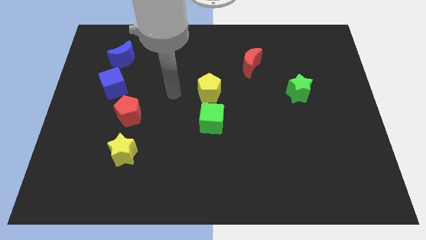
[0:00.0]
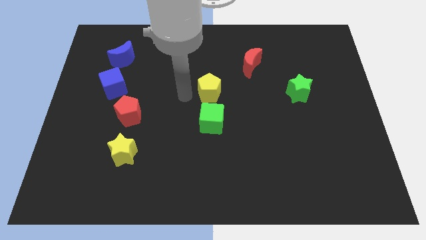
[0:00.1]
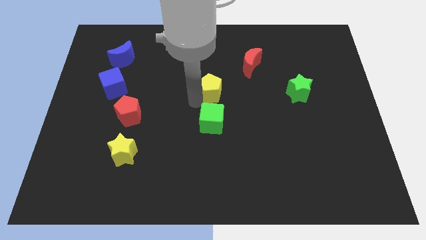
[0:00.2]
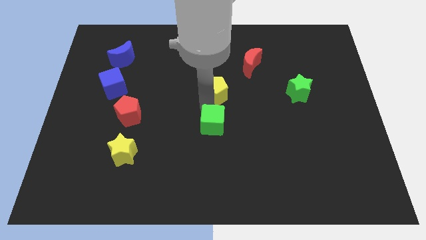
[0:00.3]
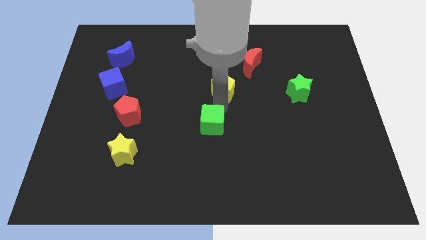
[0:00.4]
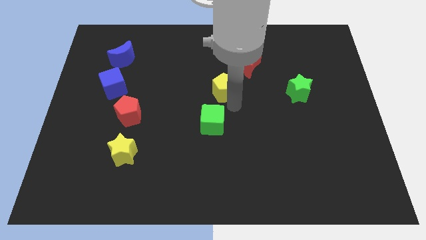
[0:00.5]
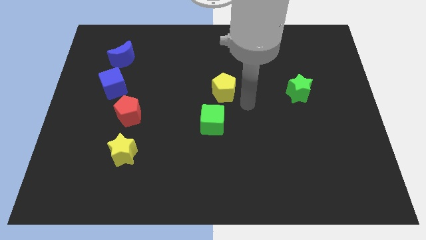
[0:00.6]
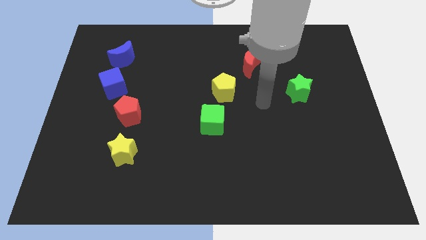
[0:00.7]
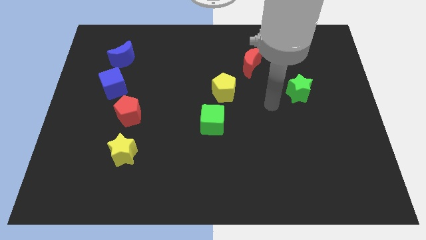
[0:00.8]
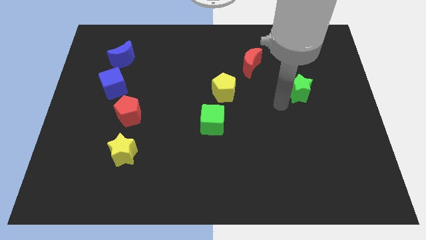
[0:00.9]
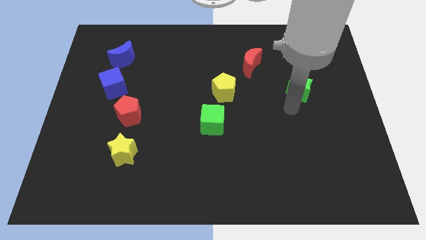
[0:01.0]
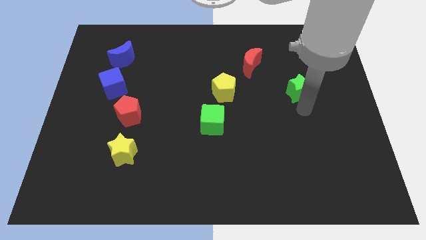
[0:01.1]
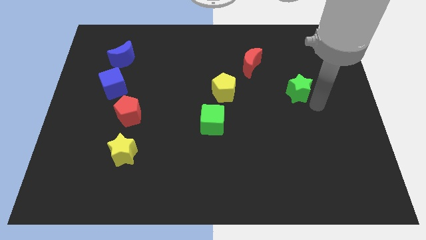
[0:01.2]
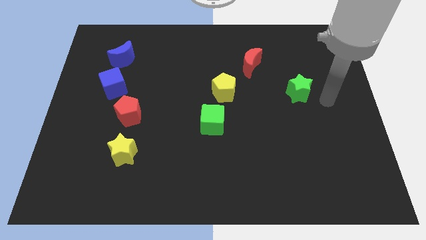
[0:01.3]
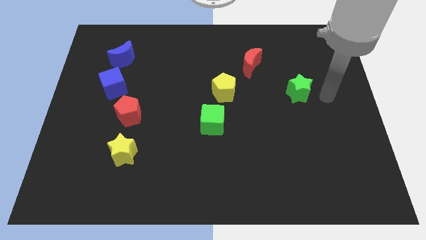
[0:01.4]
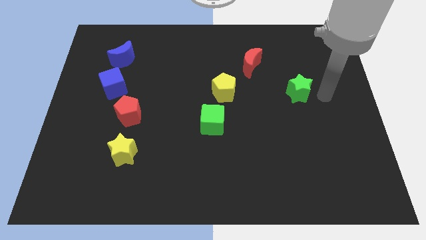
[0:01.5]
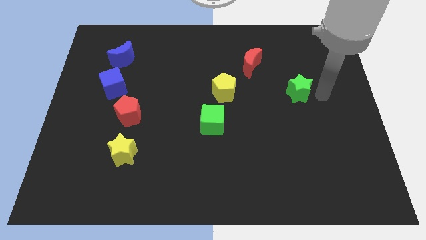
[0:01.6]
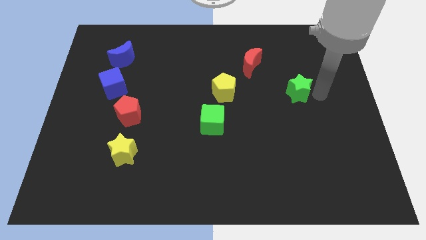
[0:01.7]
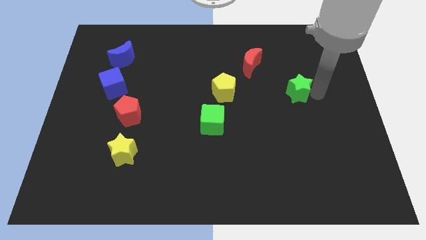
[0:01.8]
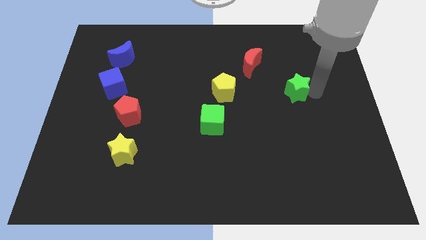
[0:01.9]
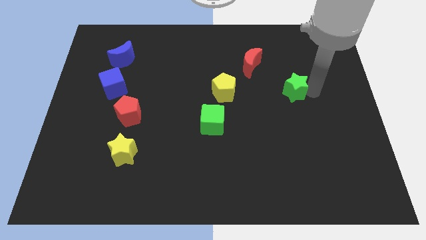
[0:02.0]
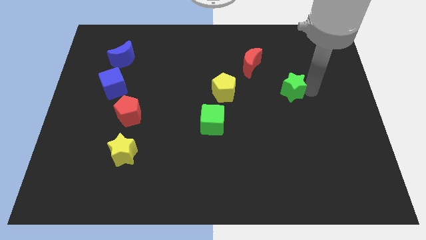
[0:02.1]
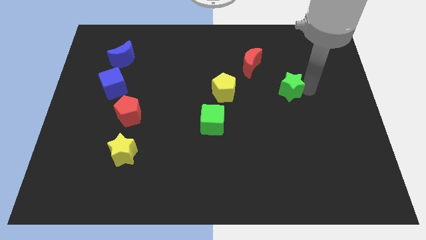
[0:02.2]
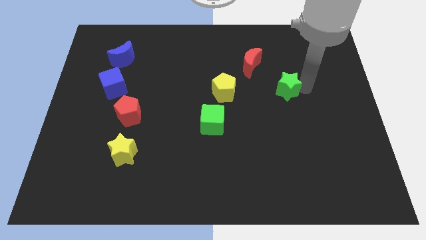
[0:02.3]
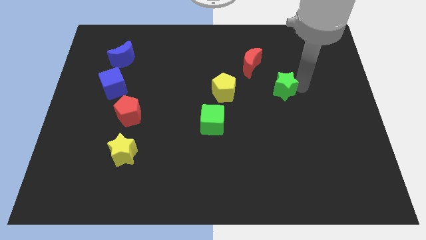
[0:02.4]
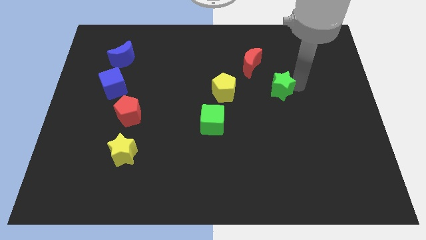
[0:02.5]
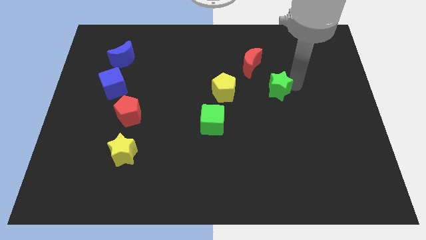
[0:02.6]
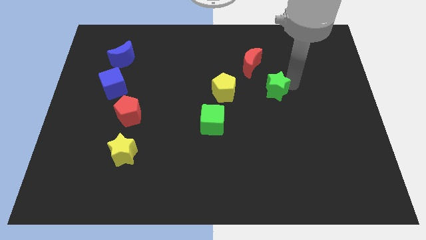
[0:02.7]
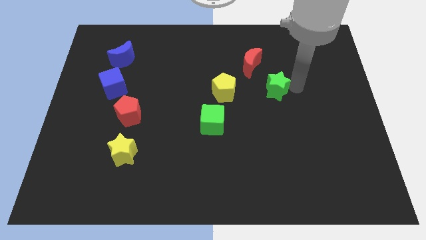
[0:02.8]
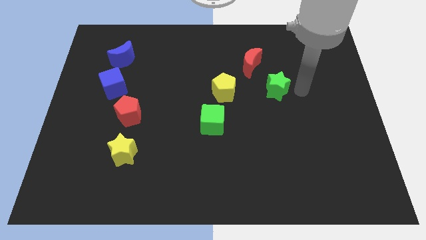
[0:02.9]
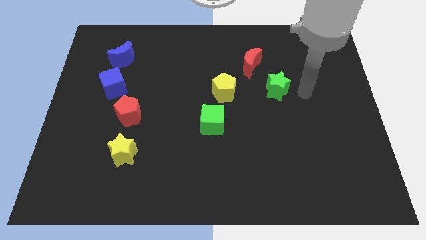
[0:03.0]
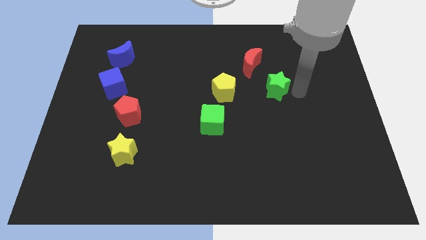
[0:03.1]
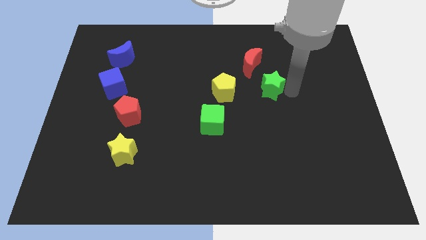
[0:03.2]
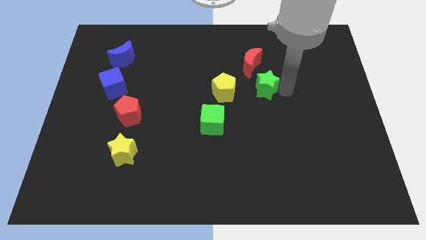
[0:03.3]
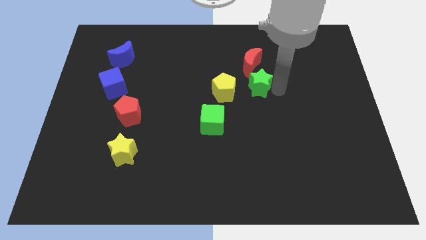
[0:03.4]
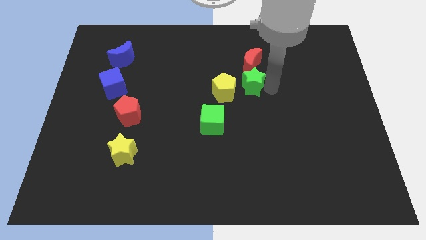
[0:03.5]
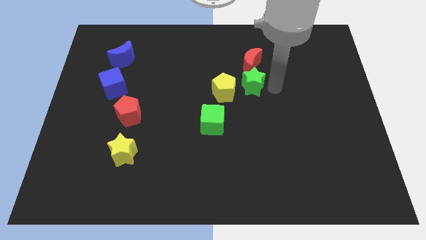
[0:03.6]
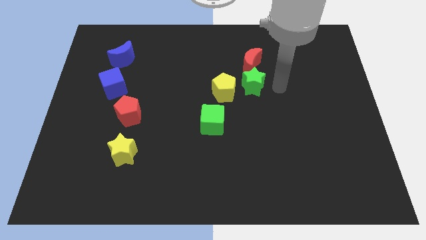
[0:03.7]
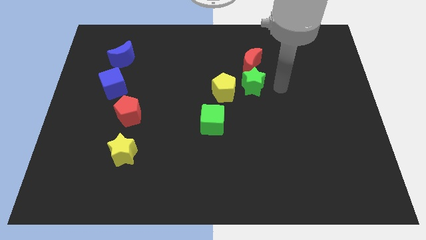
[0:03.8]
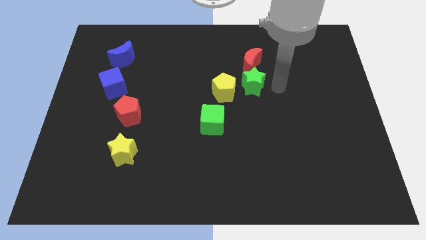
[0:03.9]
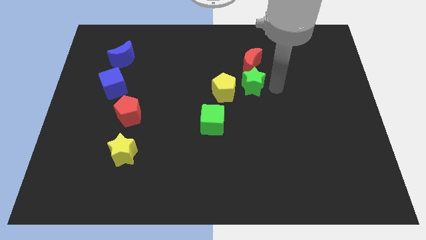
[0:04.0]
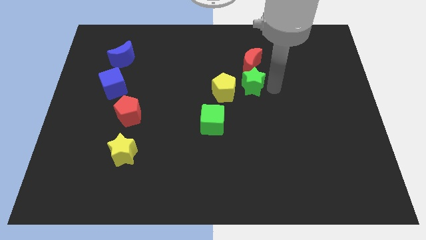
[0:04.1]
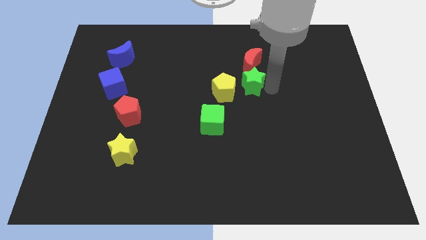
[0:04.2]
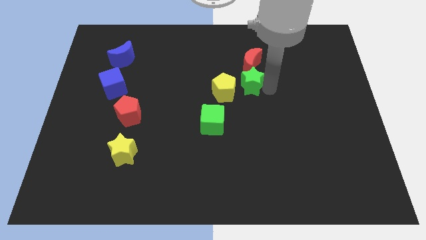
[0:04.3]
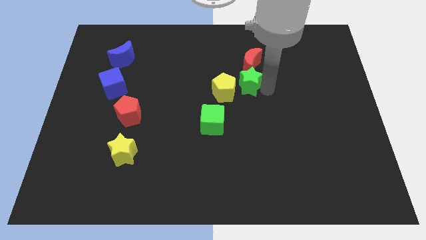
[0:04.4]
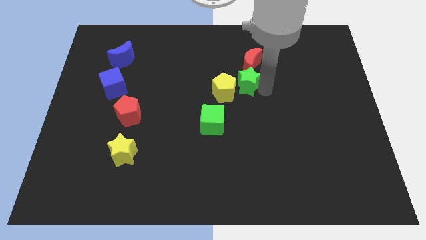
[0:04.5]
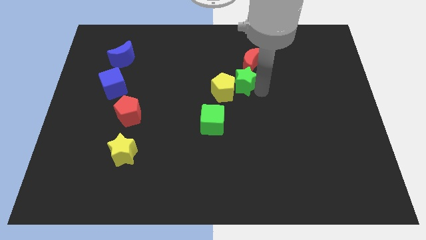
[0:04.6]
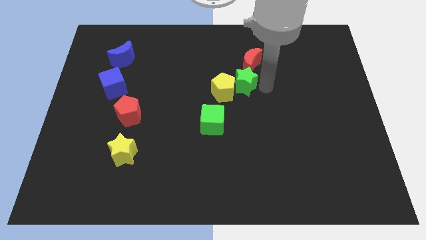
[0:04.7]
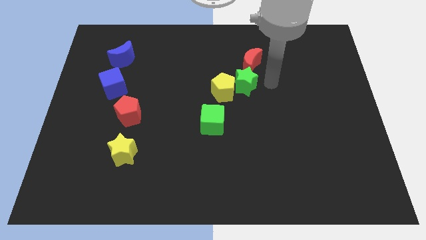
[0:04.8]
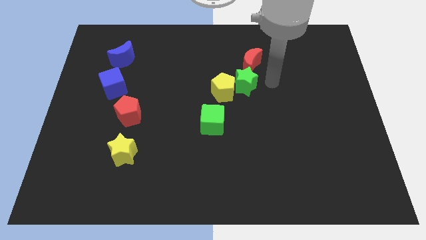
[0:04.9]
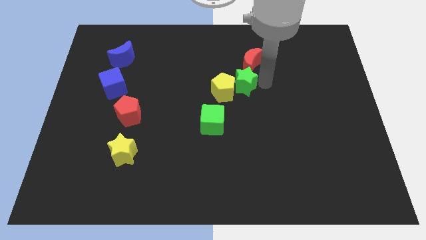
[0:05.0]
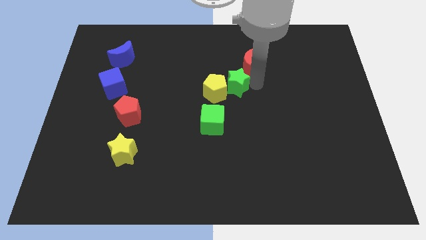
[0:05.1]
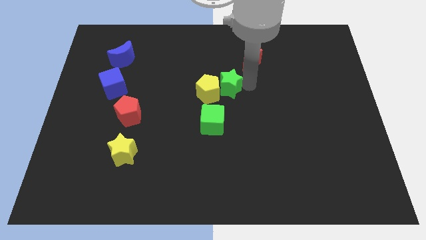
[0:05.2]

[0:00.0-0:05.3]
push the green star to the top side of the green cube

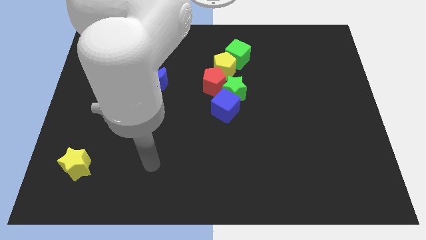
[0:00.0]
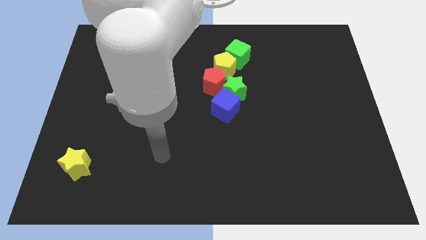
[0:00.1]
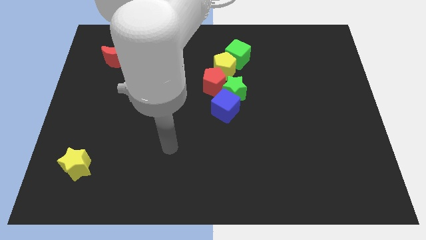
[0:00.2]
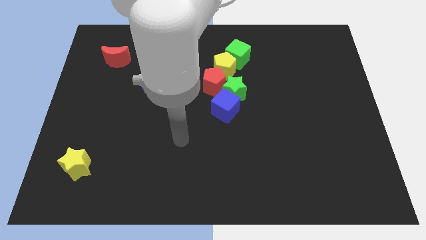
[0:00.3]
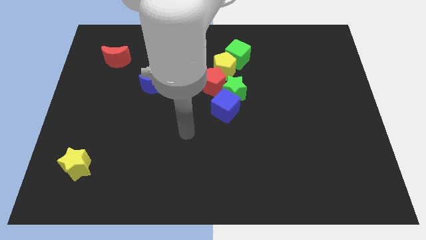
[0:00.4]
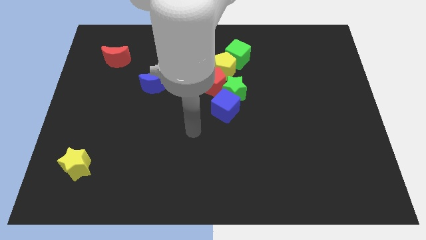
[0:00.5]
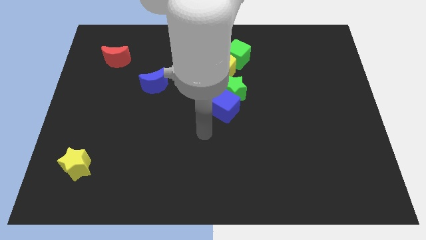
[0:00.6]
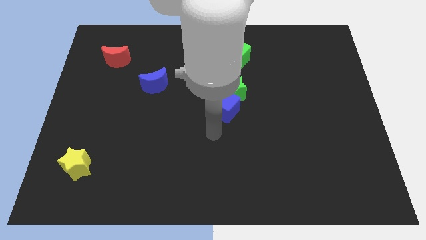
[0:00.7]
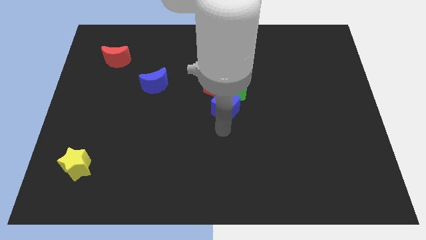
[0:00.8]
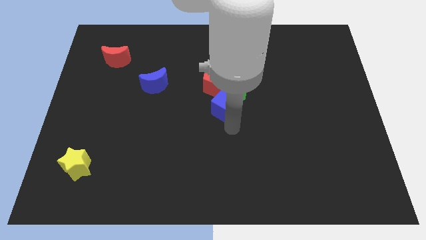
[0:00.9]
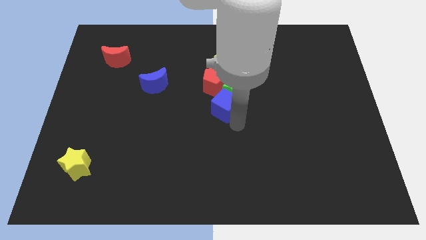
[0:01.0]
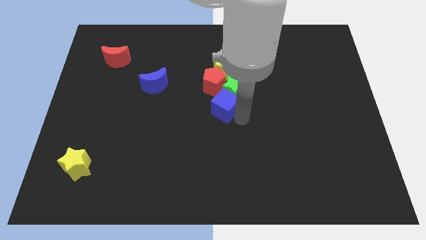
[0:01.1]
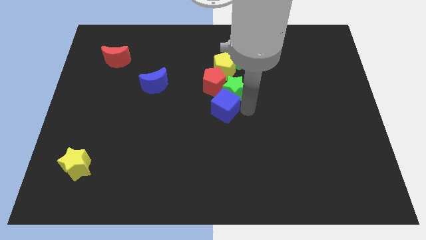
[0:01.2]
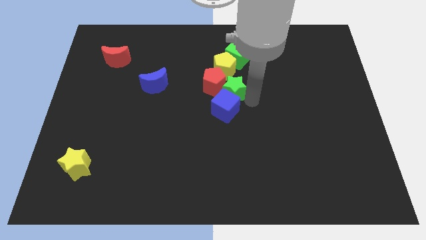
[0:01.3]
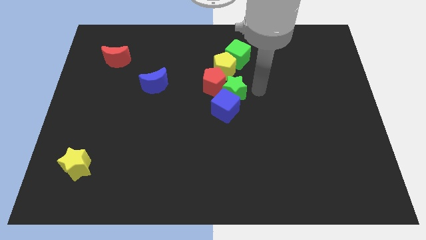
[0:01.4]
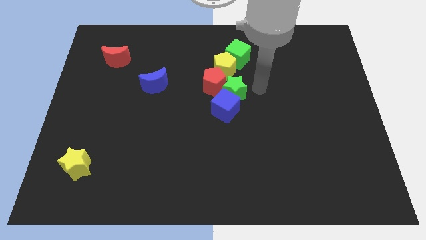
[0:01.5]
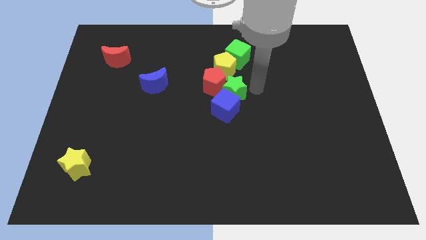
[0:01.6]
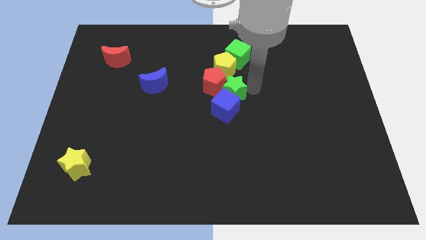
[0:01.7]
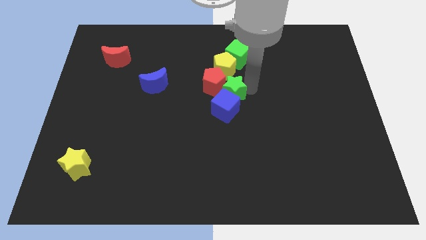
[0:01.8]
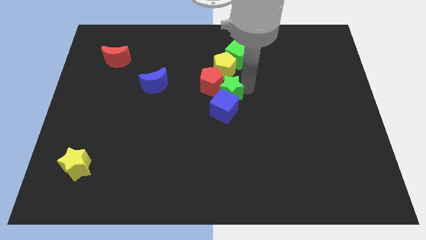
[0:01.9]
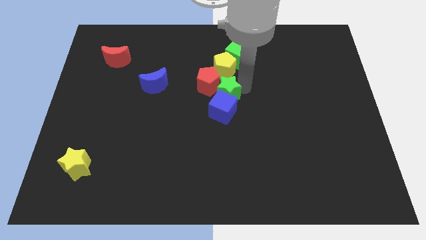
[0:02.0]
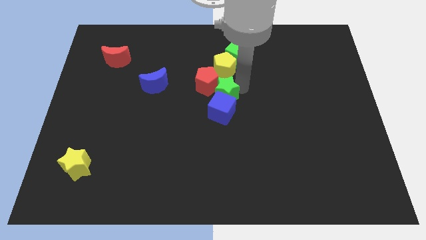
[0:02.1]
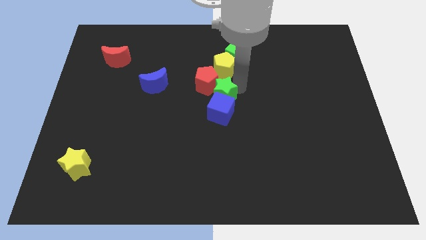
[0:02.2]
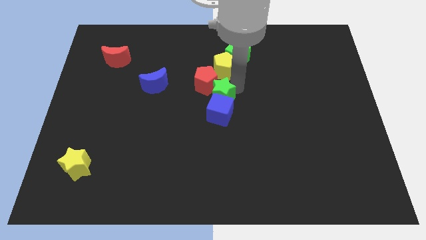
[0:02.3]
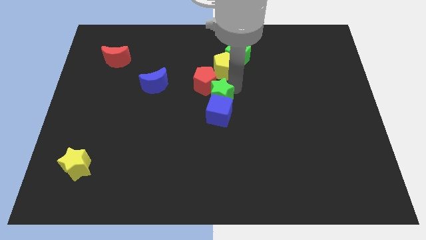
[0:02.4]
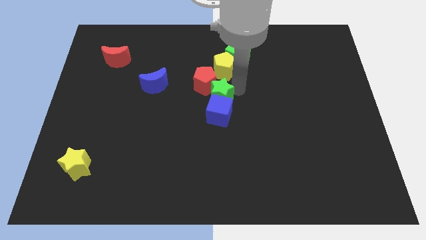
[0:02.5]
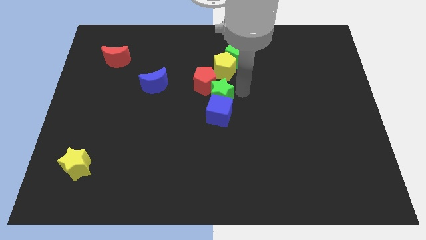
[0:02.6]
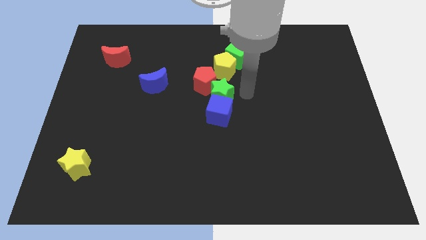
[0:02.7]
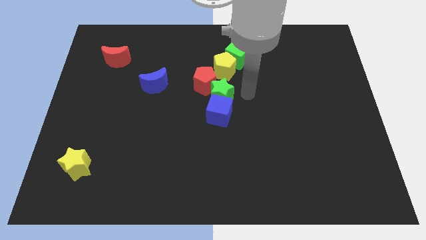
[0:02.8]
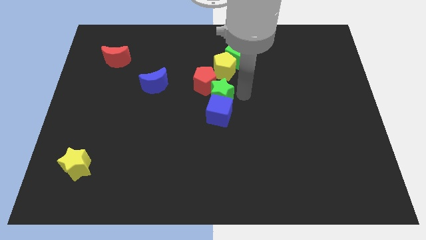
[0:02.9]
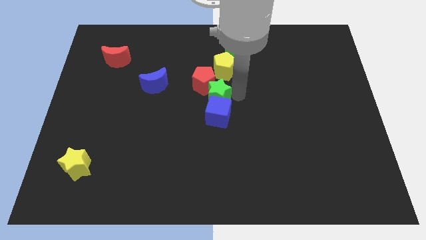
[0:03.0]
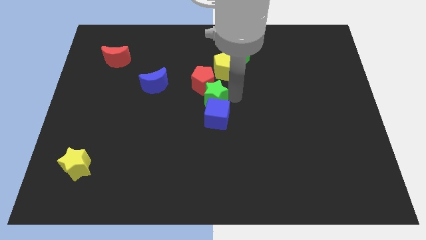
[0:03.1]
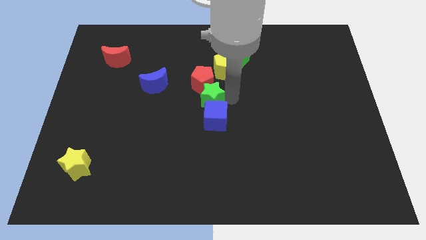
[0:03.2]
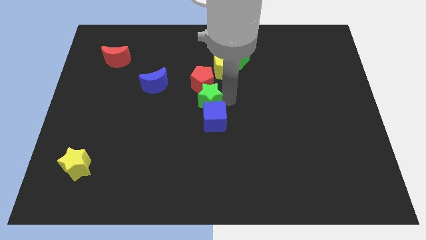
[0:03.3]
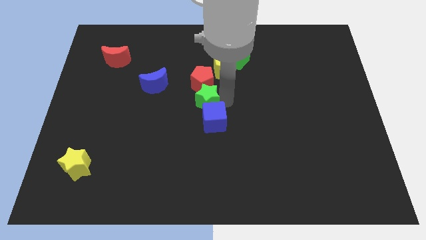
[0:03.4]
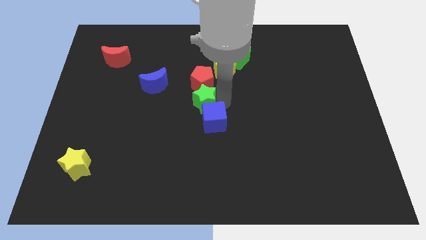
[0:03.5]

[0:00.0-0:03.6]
move the green star to the bottom left of the red pentagon

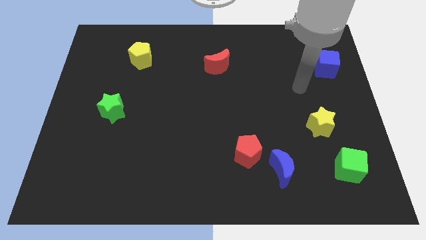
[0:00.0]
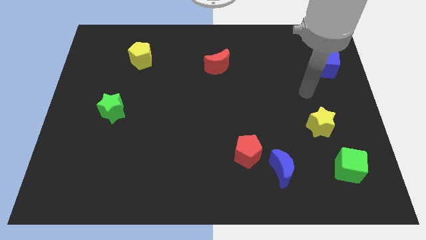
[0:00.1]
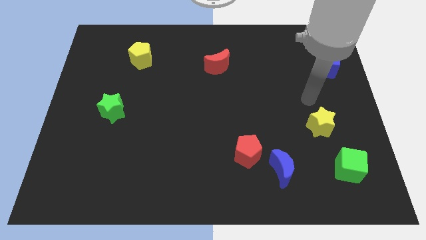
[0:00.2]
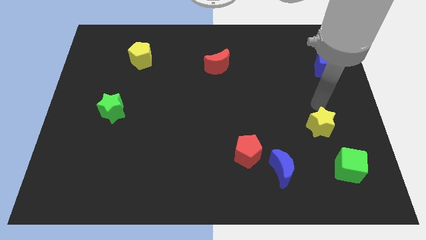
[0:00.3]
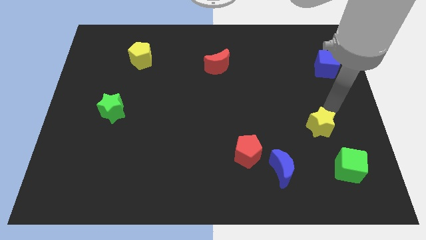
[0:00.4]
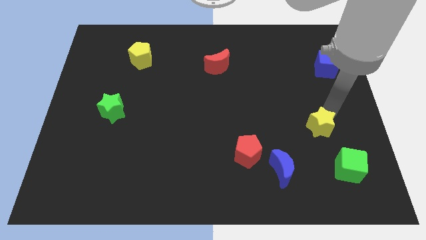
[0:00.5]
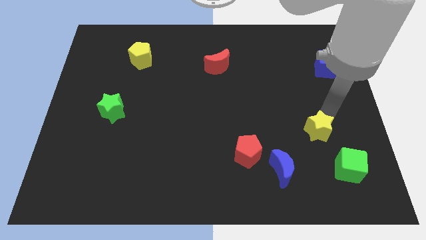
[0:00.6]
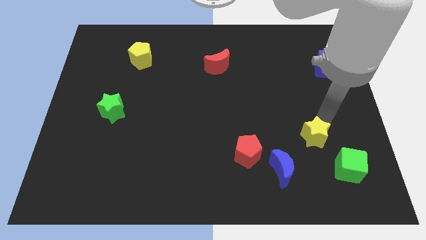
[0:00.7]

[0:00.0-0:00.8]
move the yellow star to the top right of the blue moon
